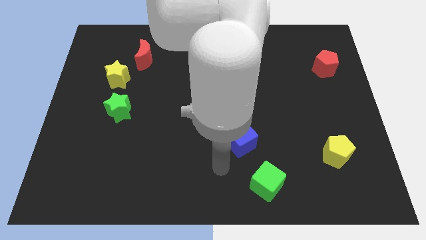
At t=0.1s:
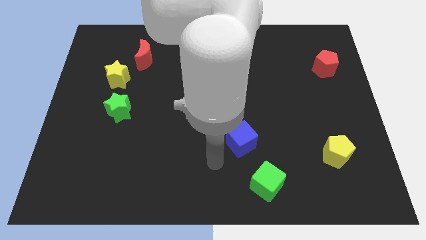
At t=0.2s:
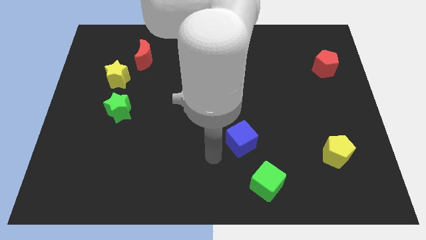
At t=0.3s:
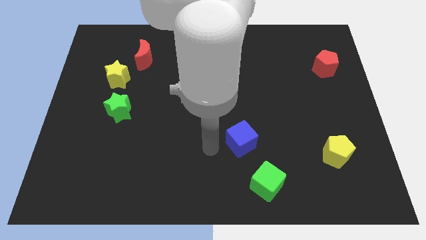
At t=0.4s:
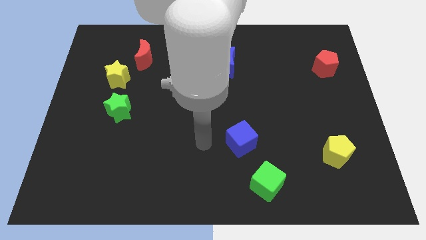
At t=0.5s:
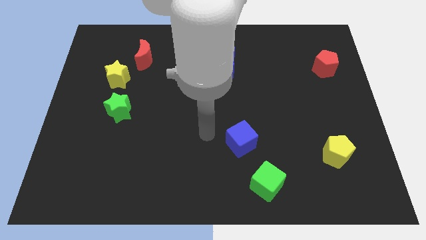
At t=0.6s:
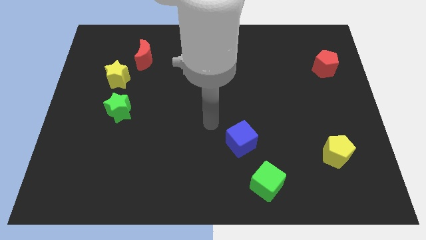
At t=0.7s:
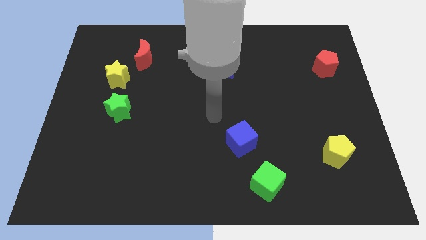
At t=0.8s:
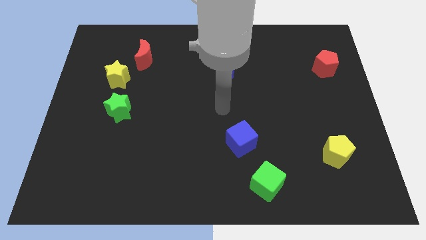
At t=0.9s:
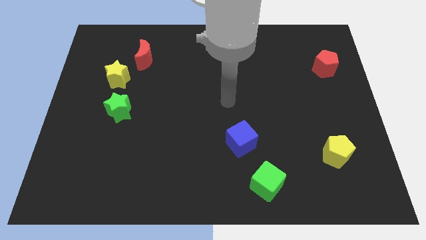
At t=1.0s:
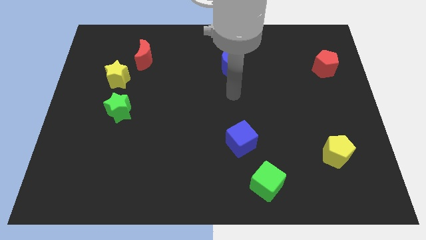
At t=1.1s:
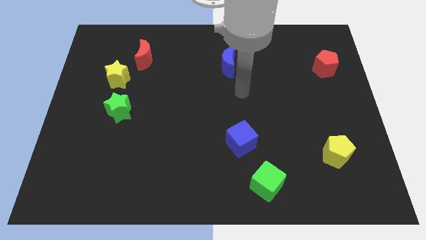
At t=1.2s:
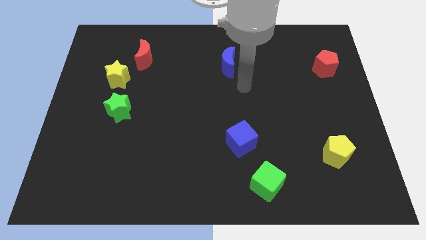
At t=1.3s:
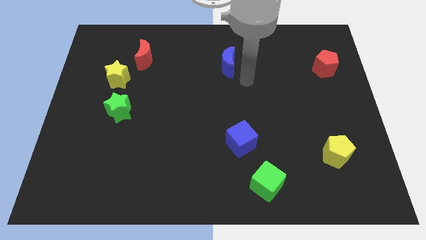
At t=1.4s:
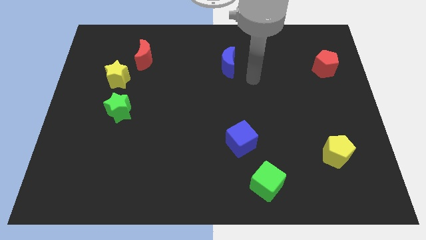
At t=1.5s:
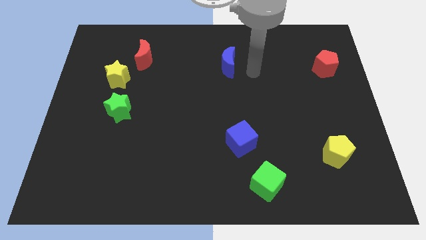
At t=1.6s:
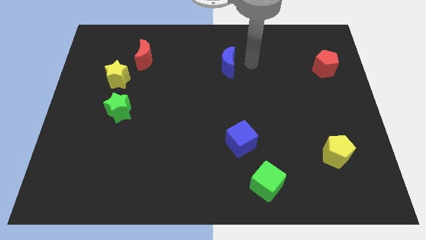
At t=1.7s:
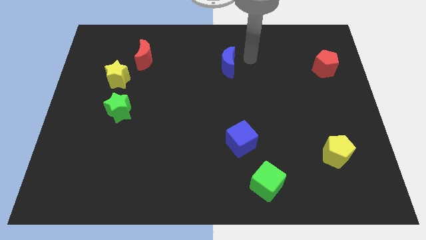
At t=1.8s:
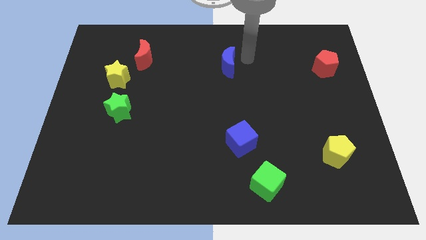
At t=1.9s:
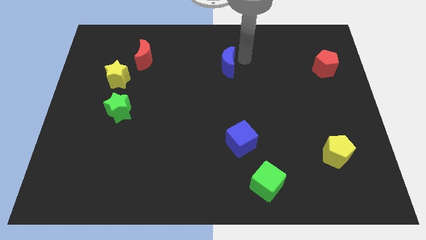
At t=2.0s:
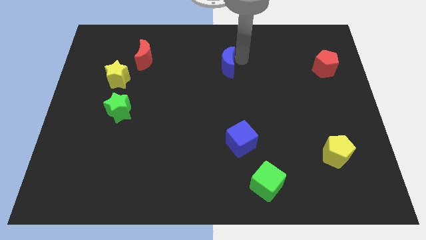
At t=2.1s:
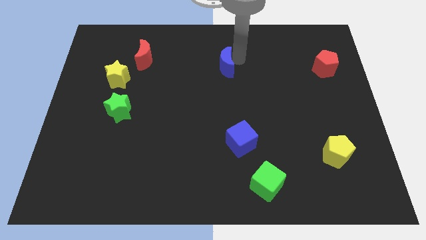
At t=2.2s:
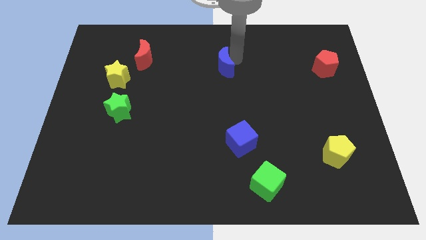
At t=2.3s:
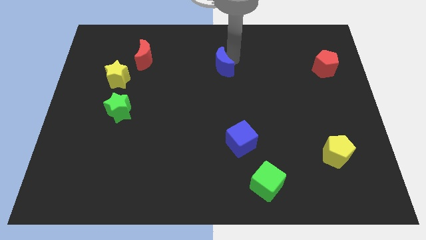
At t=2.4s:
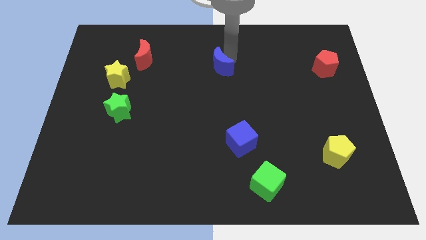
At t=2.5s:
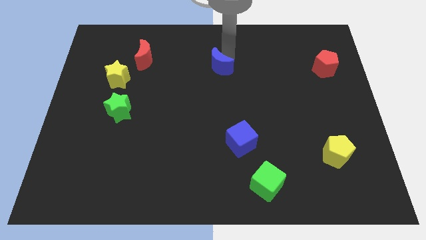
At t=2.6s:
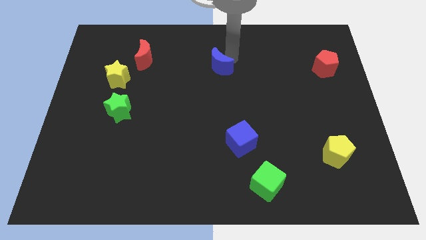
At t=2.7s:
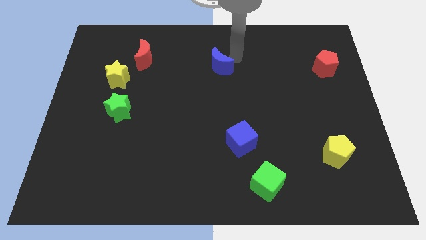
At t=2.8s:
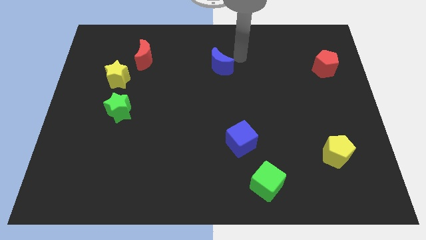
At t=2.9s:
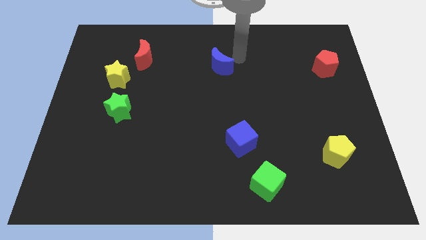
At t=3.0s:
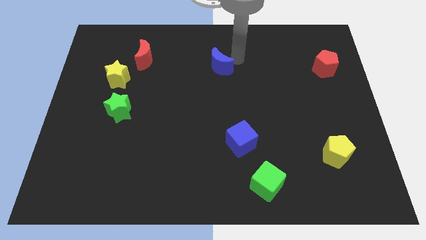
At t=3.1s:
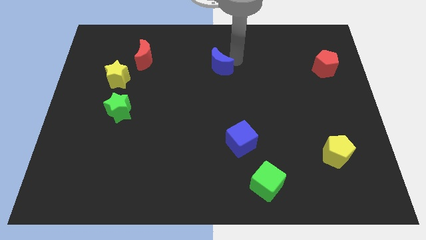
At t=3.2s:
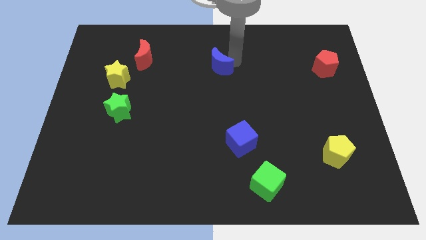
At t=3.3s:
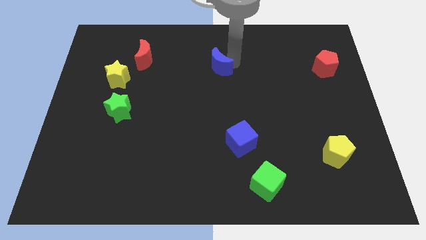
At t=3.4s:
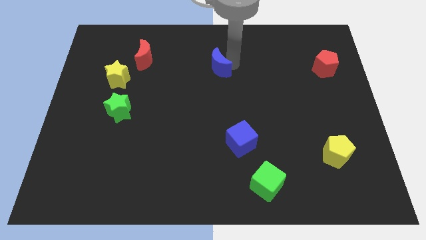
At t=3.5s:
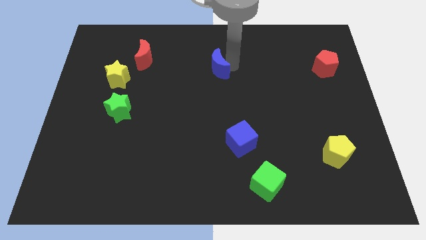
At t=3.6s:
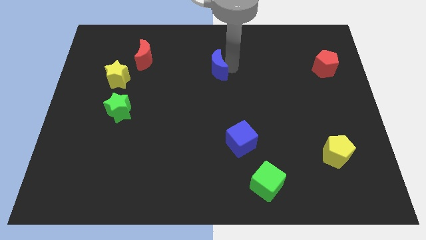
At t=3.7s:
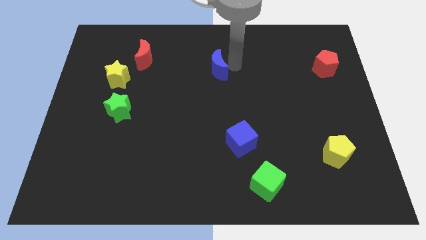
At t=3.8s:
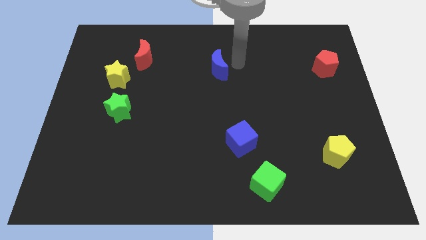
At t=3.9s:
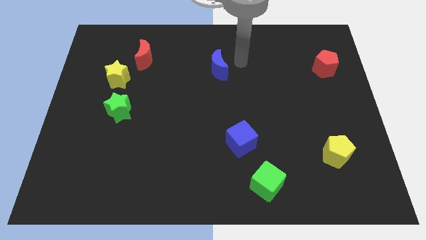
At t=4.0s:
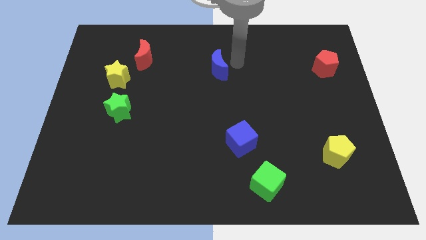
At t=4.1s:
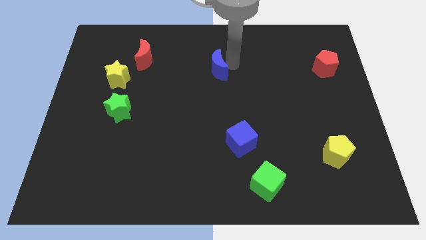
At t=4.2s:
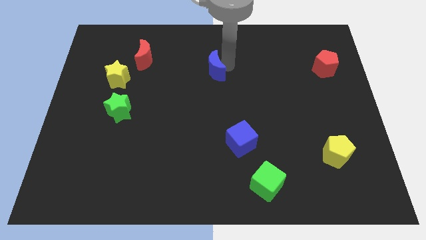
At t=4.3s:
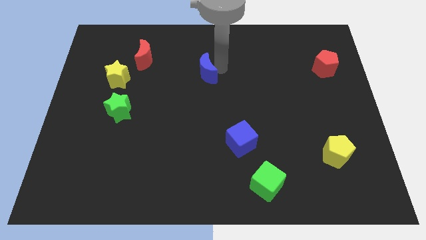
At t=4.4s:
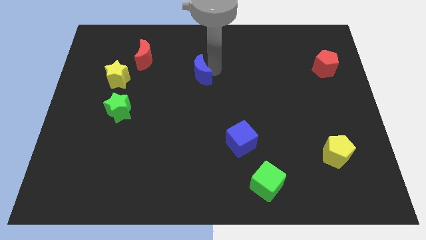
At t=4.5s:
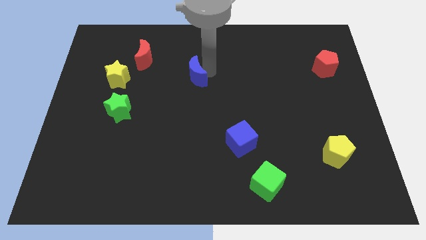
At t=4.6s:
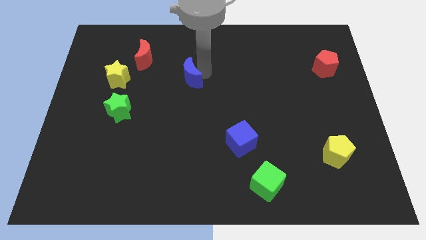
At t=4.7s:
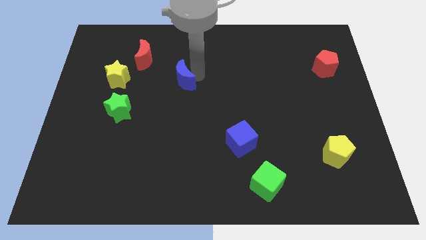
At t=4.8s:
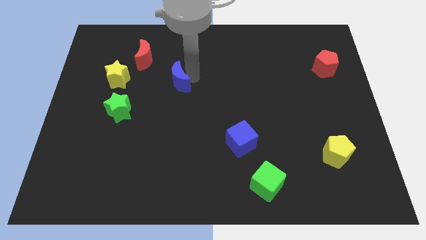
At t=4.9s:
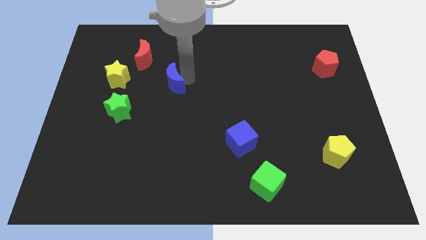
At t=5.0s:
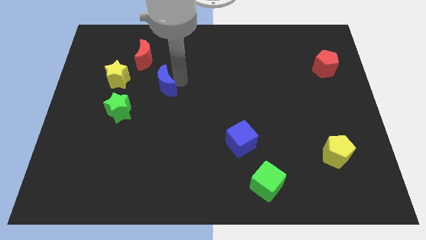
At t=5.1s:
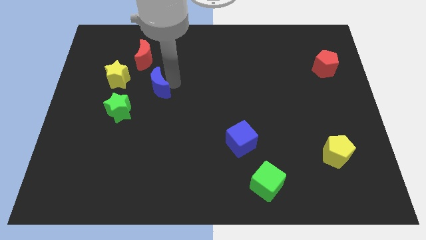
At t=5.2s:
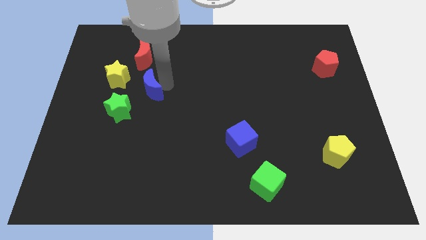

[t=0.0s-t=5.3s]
put the blue moon to the bottom right side of the yellow star

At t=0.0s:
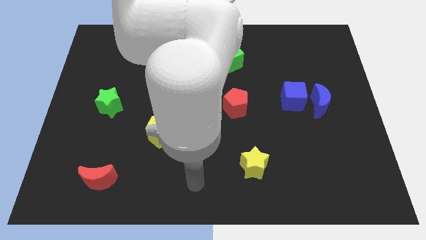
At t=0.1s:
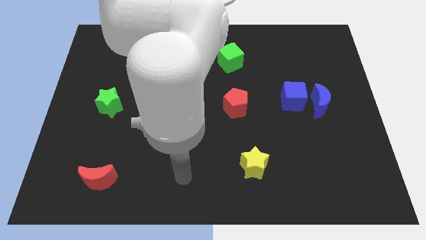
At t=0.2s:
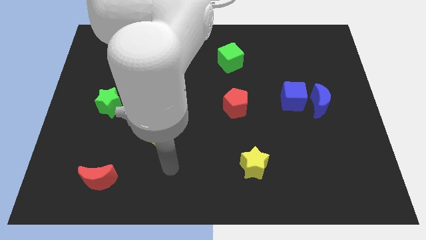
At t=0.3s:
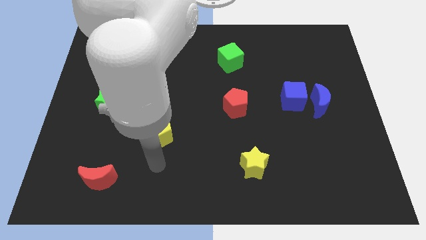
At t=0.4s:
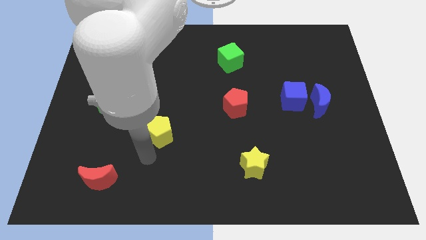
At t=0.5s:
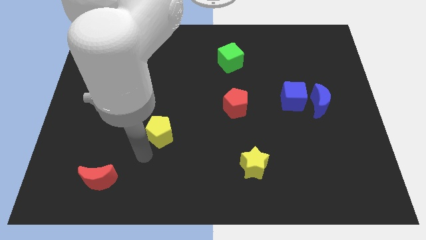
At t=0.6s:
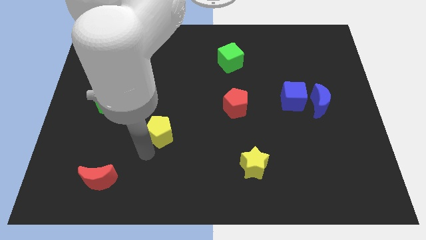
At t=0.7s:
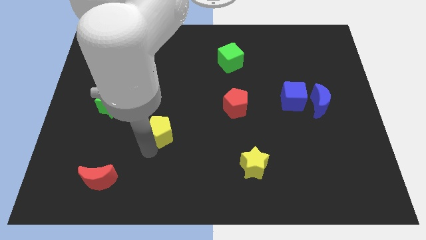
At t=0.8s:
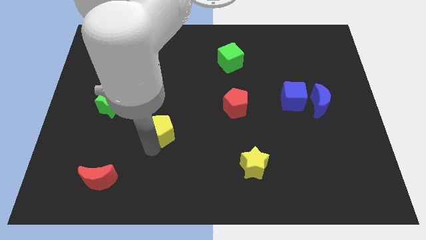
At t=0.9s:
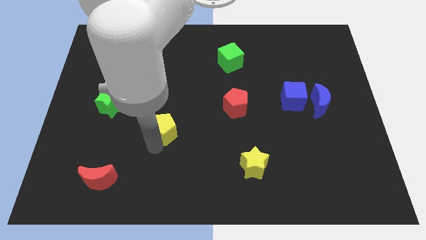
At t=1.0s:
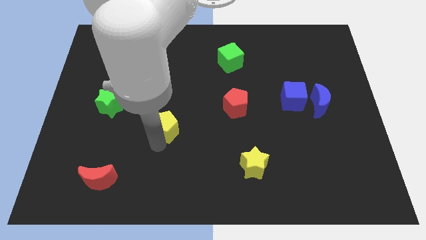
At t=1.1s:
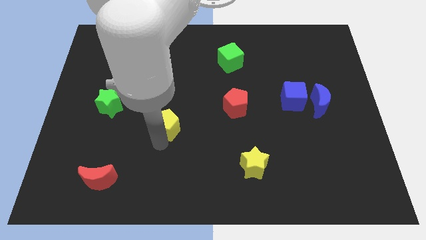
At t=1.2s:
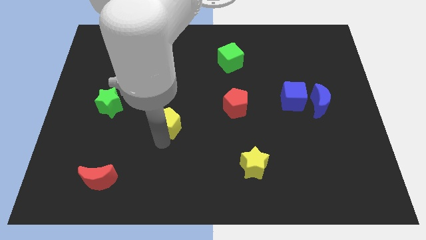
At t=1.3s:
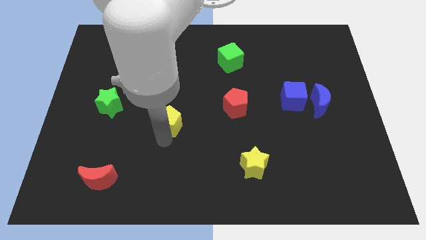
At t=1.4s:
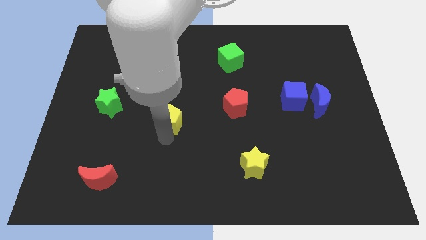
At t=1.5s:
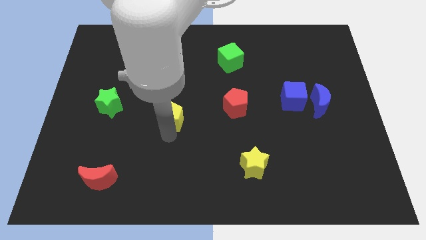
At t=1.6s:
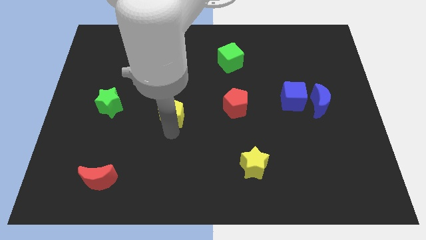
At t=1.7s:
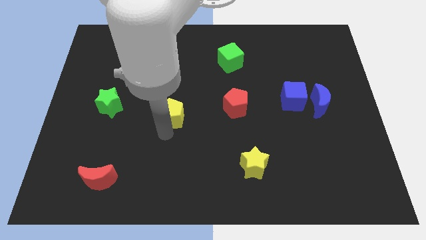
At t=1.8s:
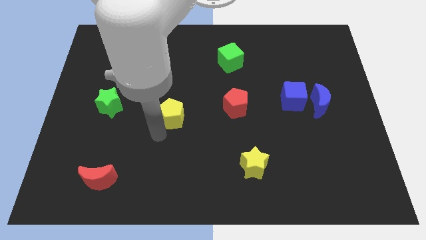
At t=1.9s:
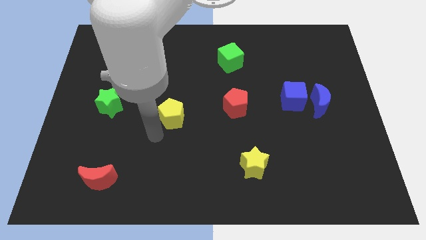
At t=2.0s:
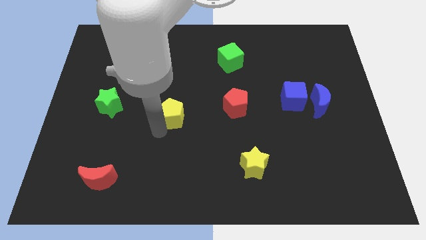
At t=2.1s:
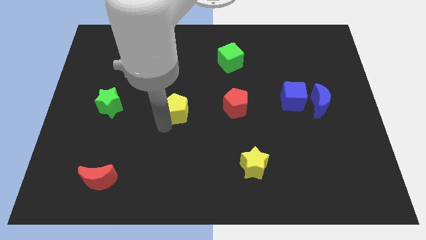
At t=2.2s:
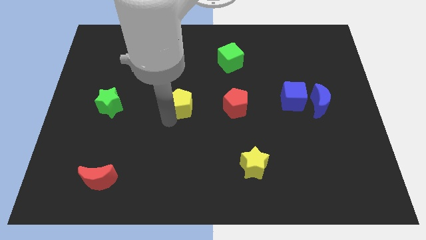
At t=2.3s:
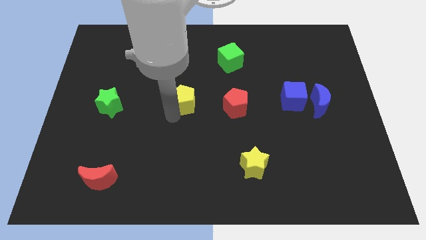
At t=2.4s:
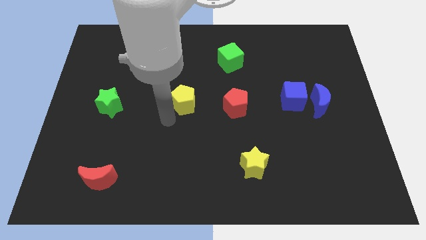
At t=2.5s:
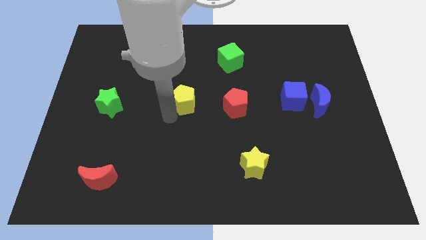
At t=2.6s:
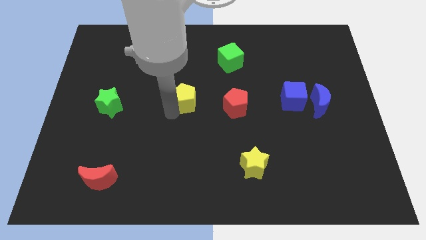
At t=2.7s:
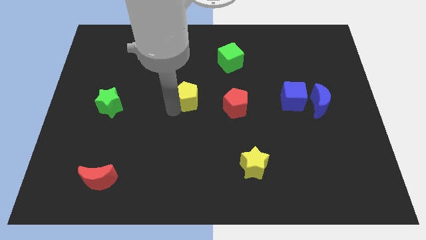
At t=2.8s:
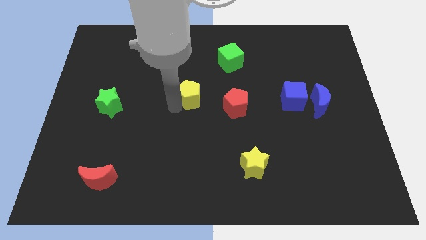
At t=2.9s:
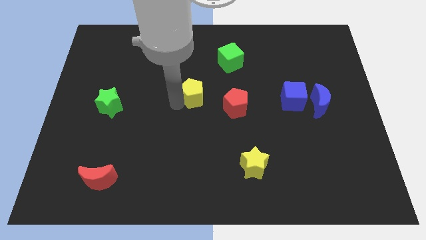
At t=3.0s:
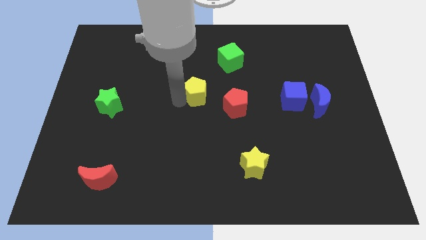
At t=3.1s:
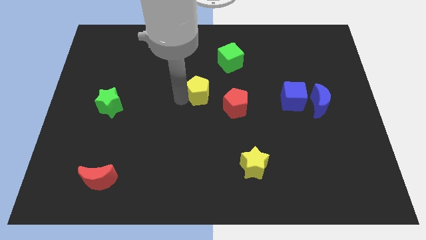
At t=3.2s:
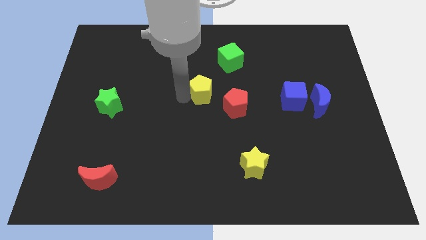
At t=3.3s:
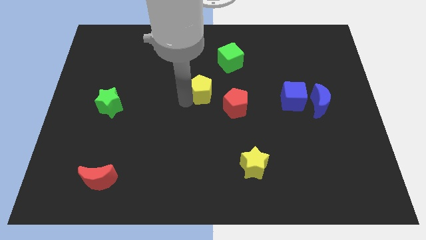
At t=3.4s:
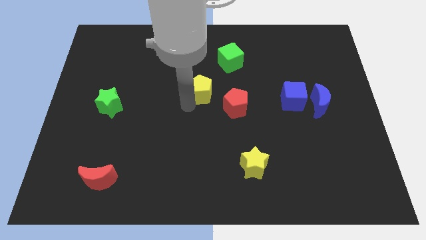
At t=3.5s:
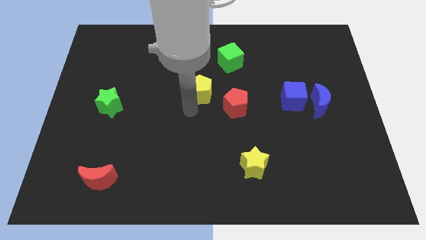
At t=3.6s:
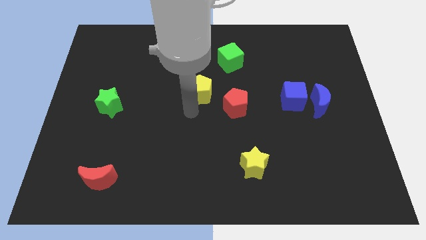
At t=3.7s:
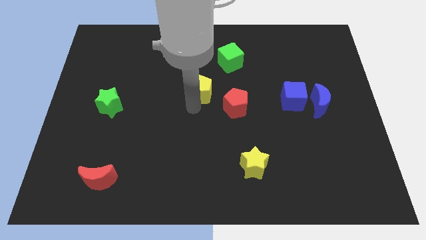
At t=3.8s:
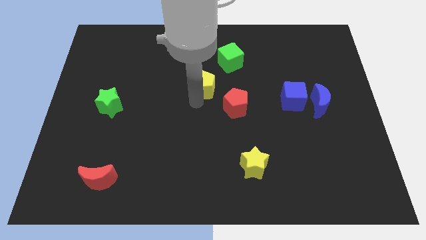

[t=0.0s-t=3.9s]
put the yellow pentagon diagonally down and to the left of the green cube
